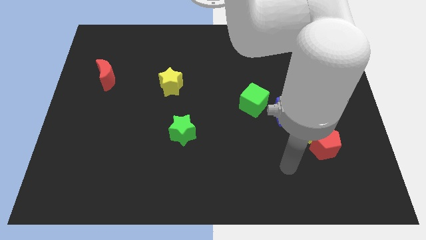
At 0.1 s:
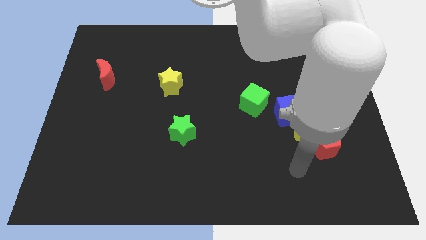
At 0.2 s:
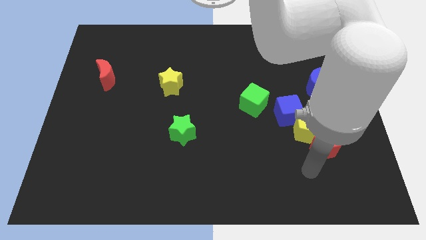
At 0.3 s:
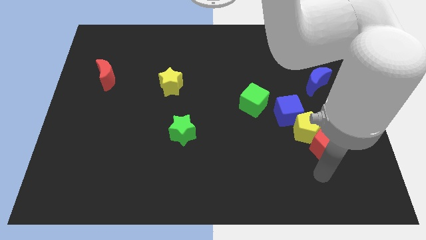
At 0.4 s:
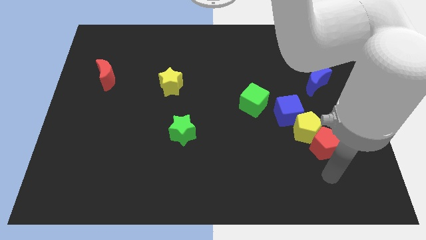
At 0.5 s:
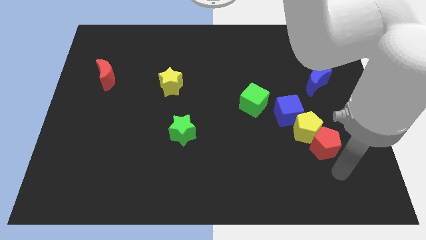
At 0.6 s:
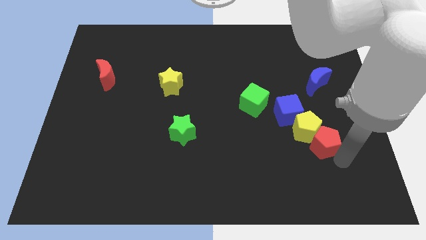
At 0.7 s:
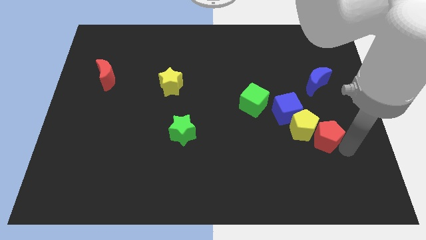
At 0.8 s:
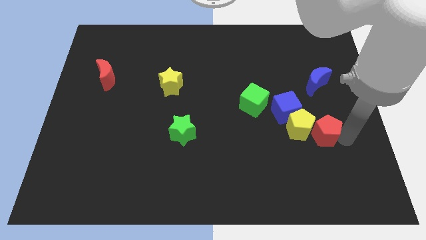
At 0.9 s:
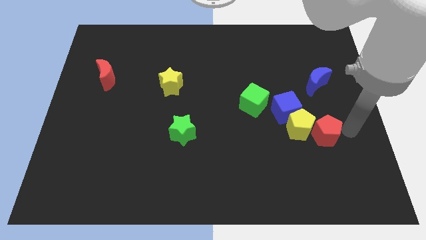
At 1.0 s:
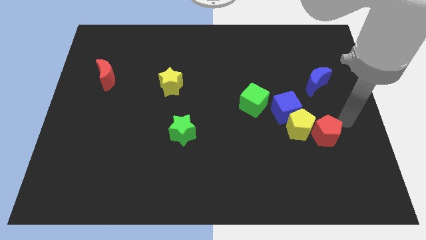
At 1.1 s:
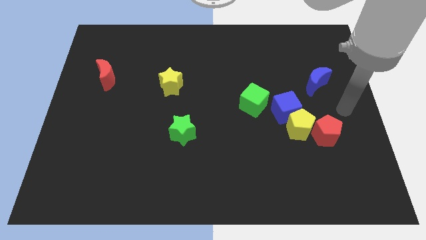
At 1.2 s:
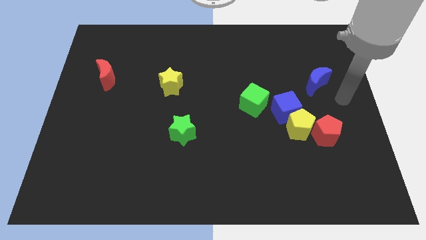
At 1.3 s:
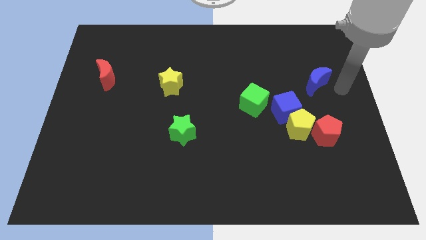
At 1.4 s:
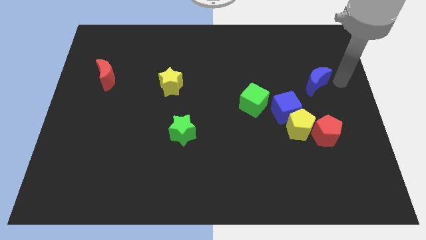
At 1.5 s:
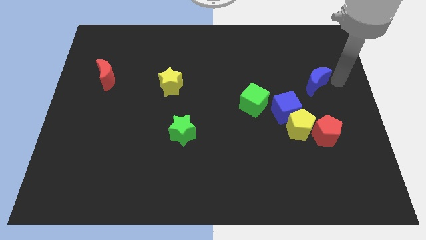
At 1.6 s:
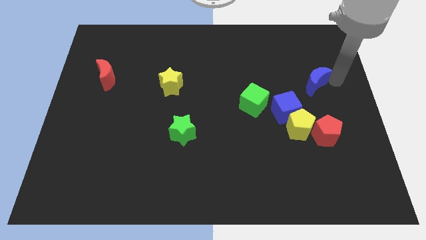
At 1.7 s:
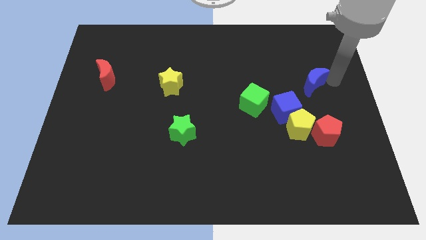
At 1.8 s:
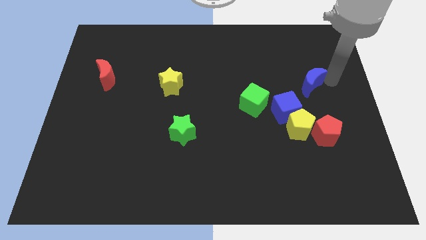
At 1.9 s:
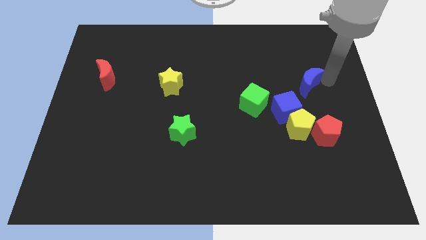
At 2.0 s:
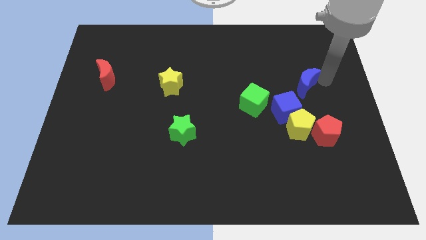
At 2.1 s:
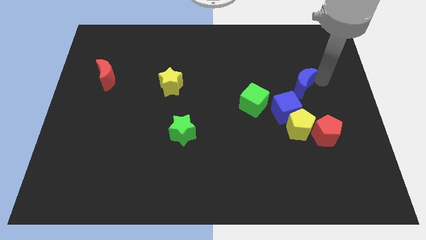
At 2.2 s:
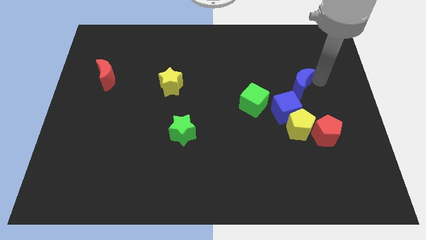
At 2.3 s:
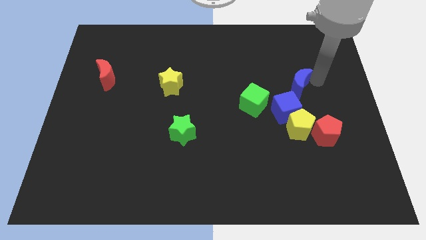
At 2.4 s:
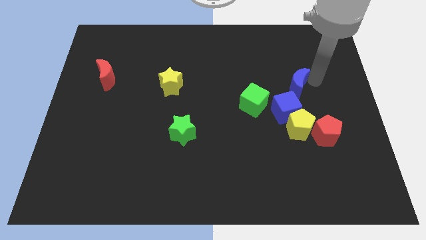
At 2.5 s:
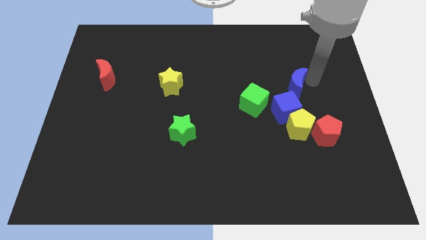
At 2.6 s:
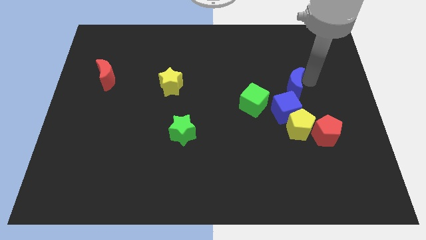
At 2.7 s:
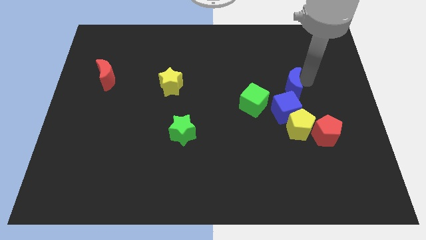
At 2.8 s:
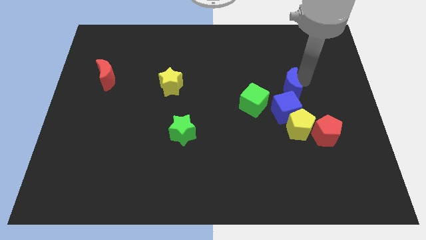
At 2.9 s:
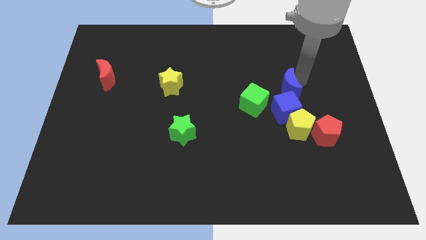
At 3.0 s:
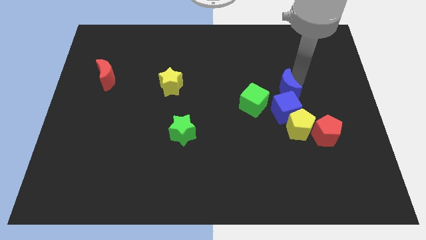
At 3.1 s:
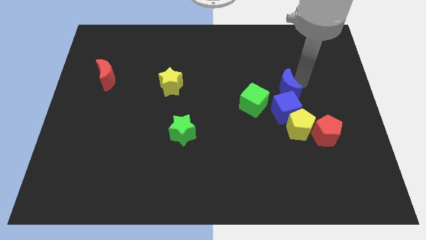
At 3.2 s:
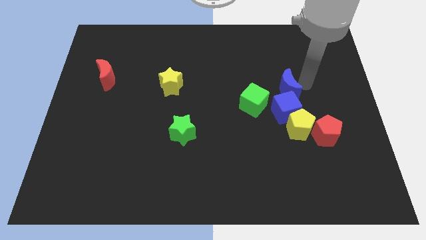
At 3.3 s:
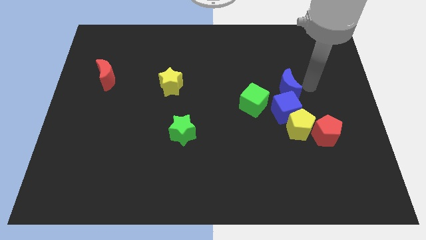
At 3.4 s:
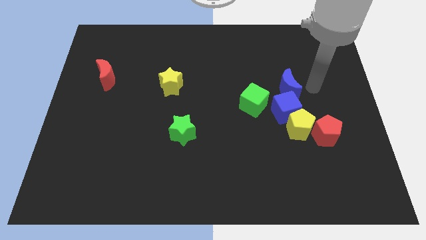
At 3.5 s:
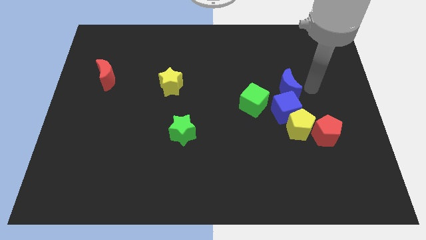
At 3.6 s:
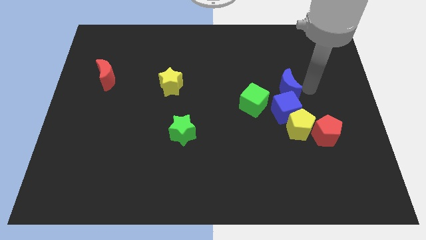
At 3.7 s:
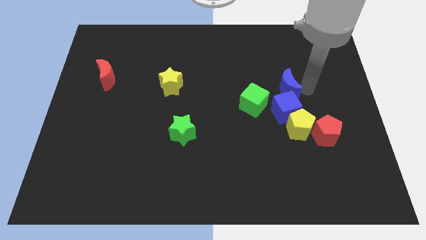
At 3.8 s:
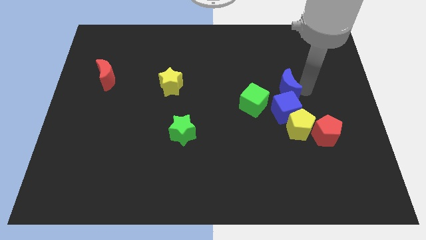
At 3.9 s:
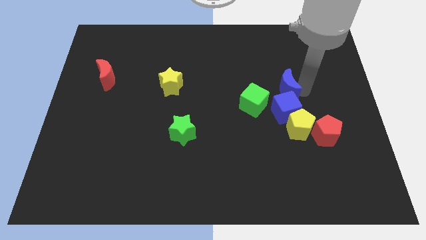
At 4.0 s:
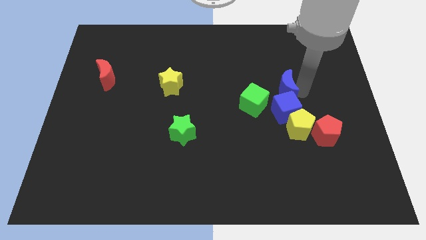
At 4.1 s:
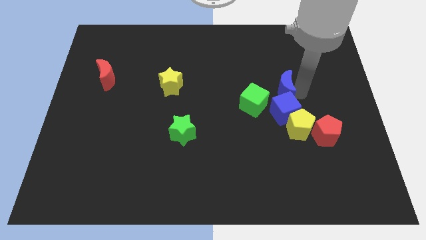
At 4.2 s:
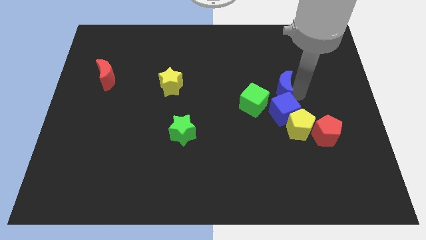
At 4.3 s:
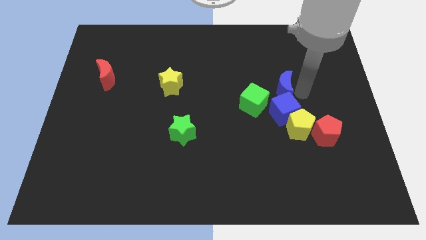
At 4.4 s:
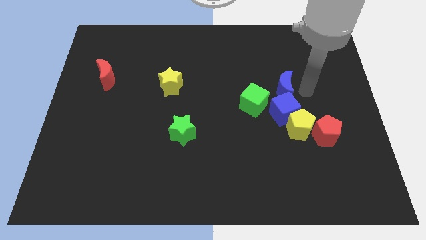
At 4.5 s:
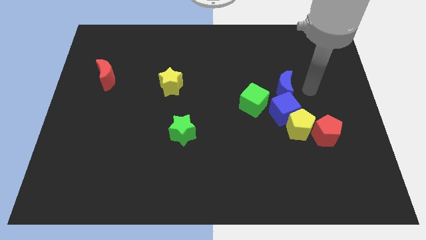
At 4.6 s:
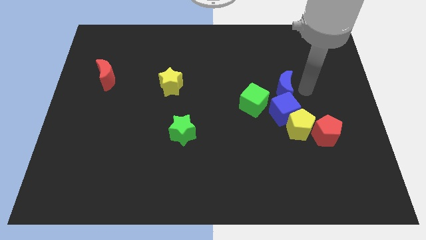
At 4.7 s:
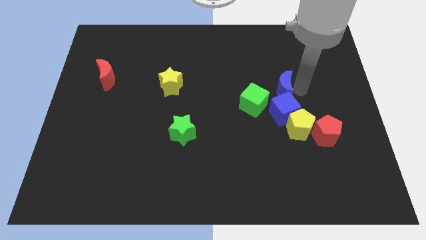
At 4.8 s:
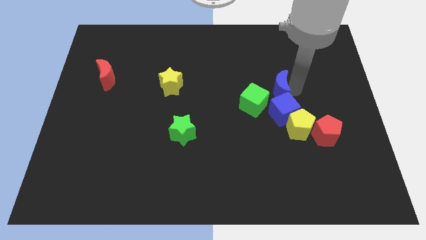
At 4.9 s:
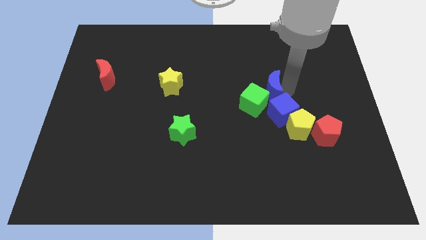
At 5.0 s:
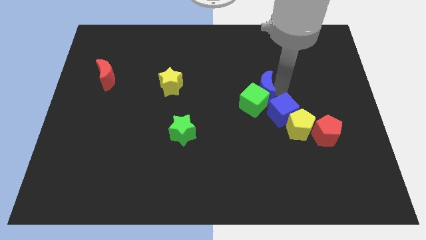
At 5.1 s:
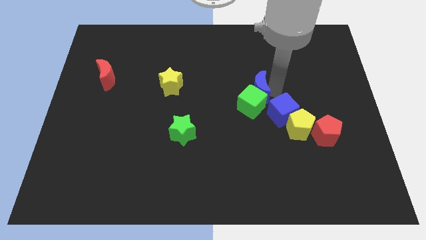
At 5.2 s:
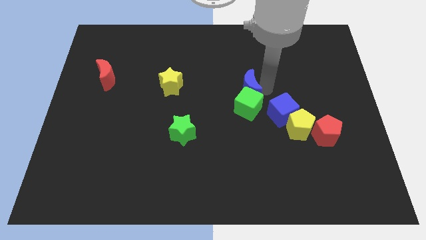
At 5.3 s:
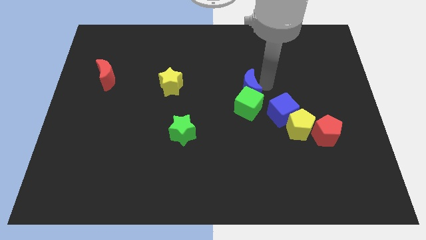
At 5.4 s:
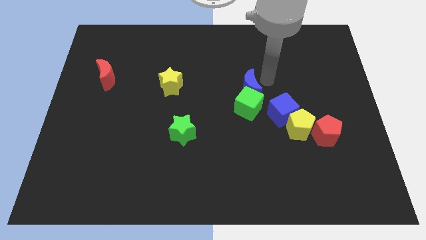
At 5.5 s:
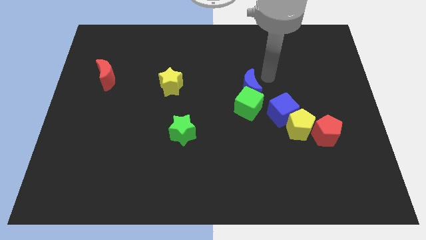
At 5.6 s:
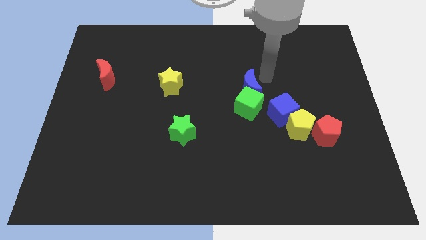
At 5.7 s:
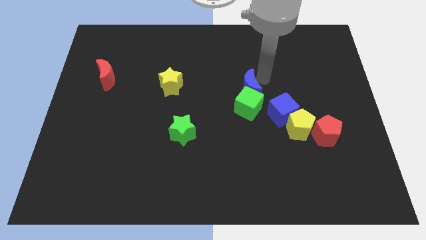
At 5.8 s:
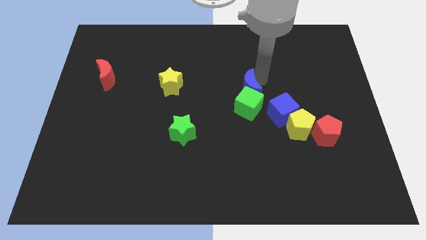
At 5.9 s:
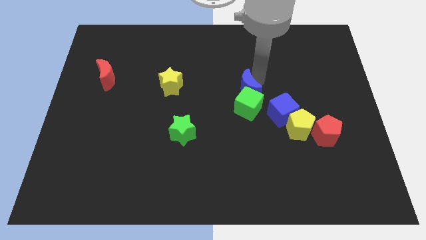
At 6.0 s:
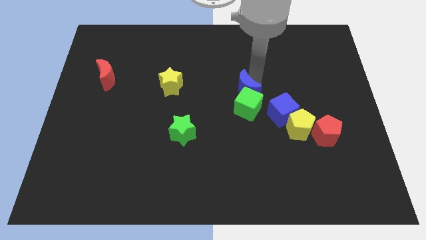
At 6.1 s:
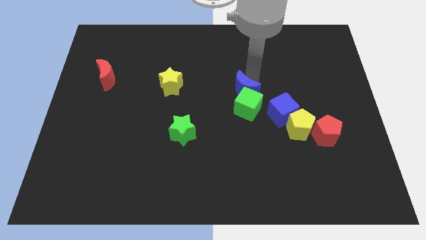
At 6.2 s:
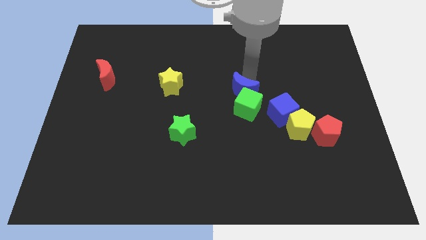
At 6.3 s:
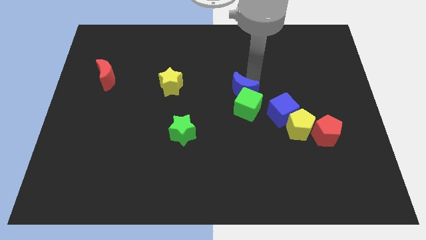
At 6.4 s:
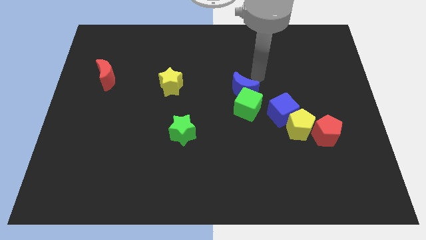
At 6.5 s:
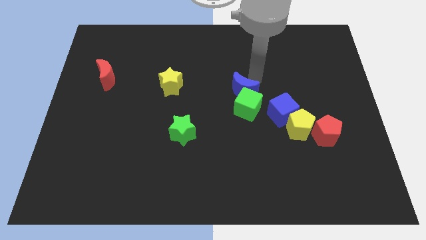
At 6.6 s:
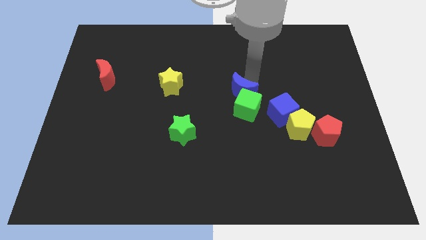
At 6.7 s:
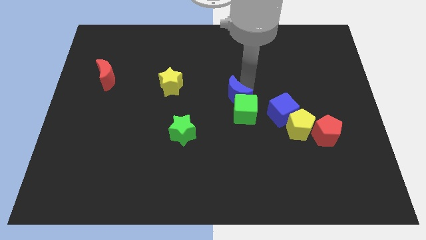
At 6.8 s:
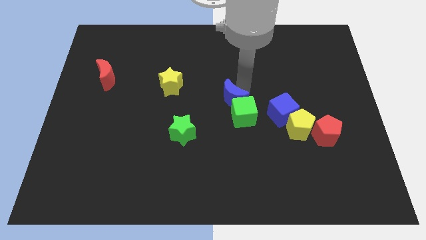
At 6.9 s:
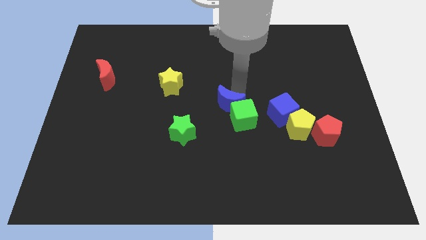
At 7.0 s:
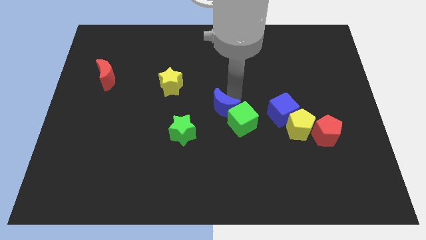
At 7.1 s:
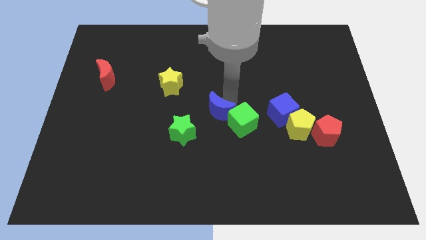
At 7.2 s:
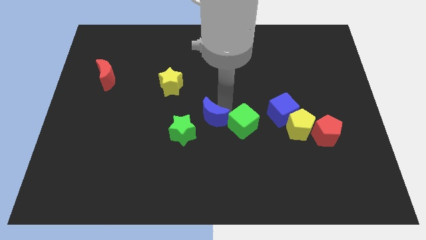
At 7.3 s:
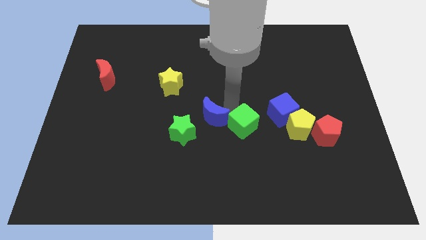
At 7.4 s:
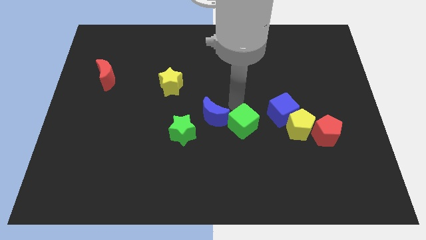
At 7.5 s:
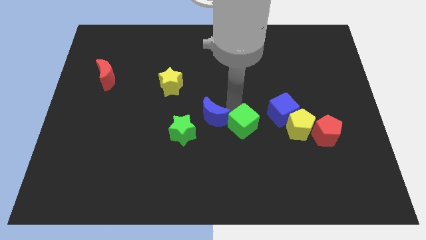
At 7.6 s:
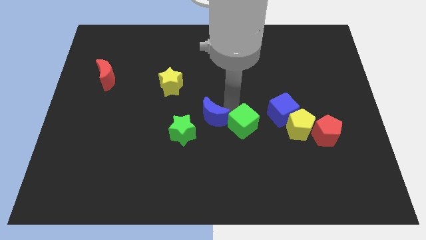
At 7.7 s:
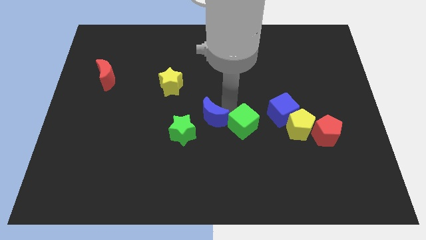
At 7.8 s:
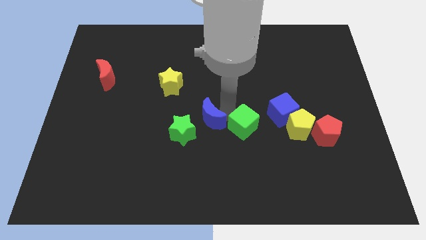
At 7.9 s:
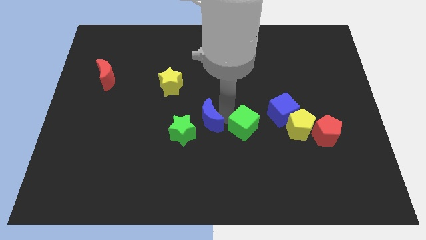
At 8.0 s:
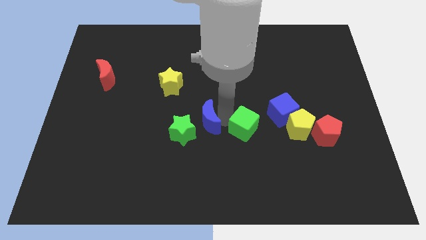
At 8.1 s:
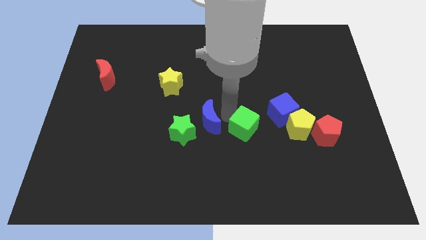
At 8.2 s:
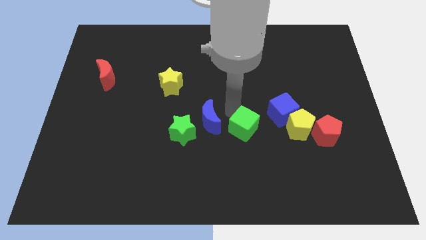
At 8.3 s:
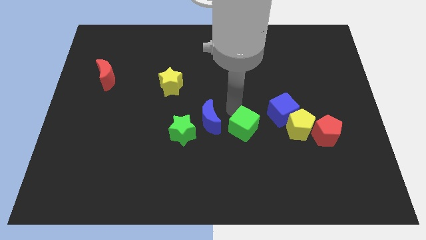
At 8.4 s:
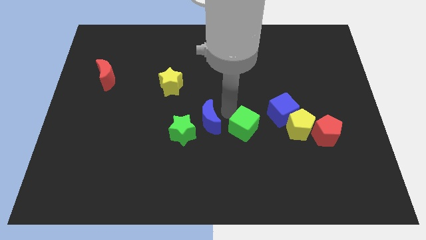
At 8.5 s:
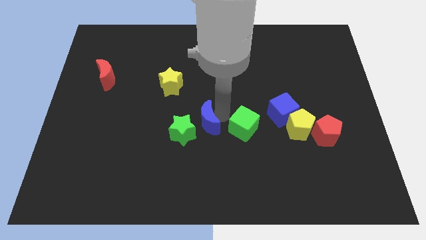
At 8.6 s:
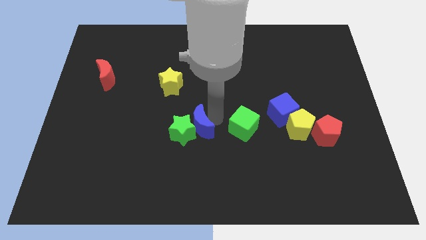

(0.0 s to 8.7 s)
slide the blue moon to the green star
